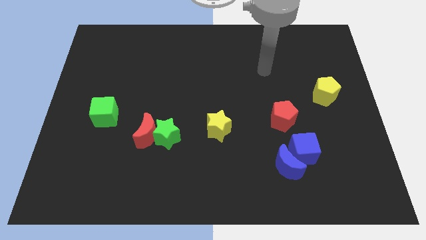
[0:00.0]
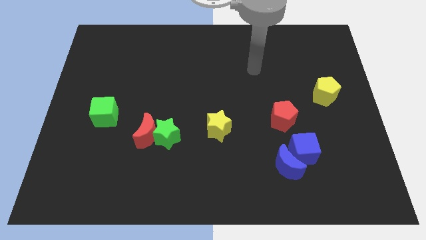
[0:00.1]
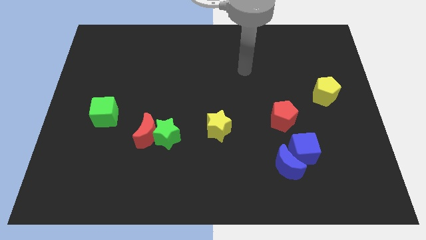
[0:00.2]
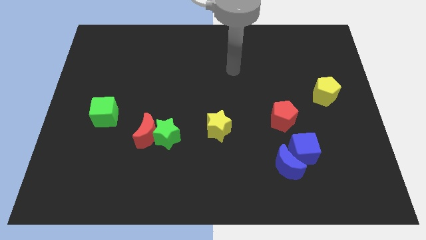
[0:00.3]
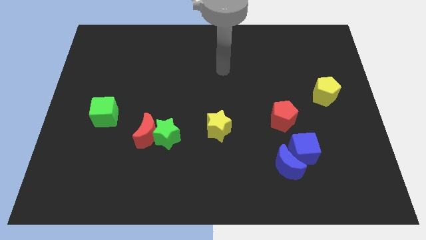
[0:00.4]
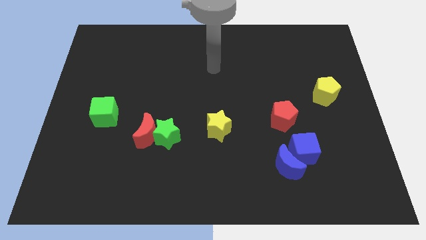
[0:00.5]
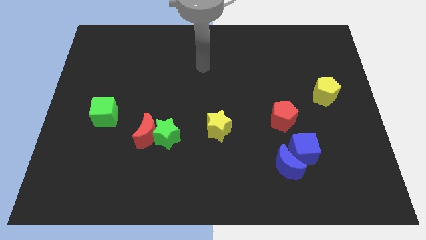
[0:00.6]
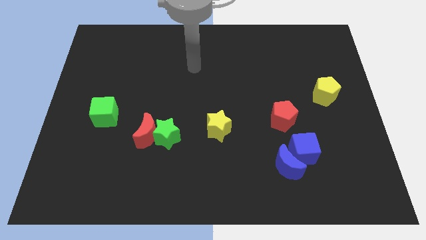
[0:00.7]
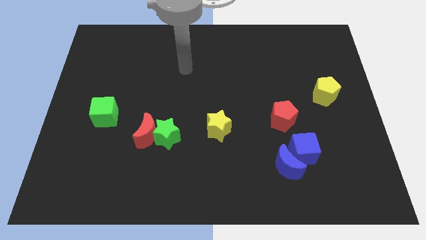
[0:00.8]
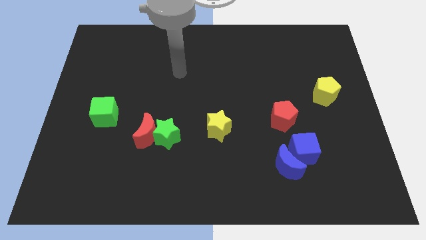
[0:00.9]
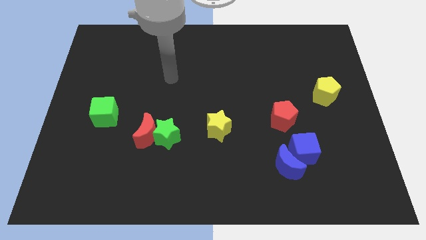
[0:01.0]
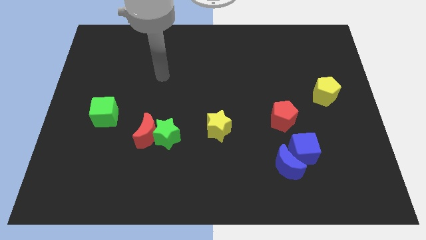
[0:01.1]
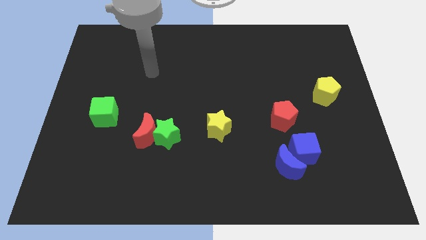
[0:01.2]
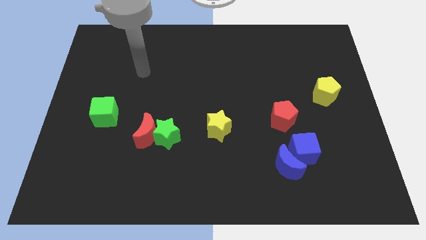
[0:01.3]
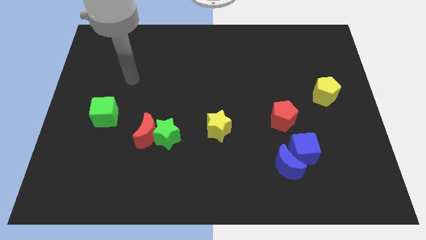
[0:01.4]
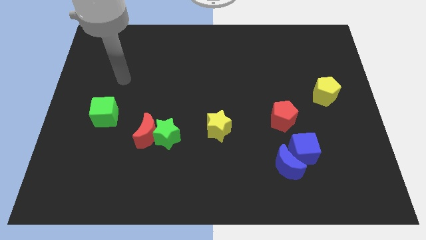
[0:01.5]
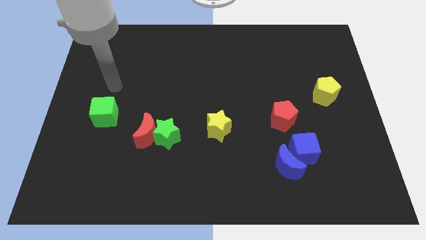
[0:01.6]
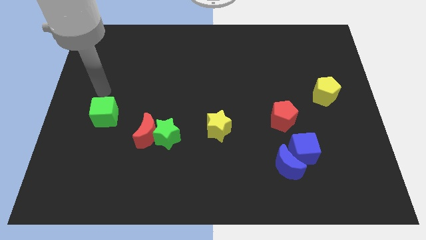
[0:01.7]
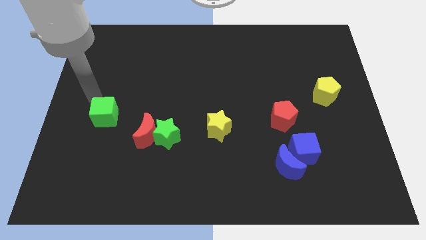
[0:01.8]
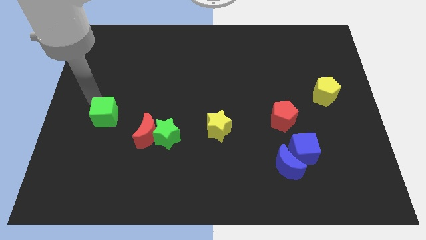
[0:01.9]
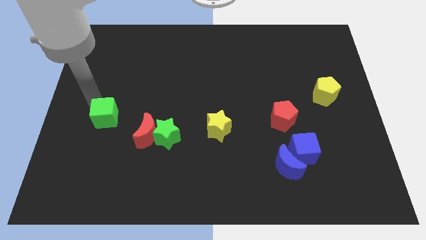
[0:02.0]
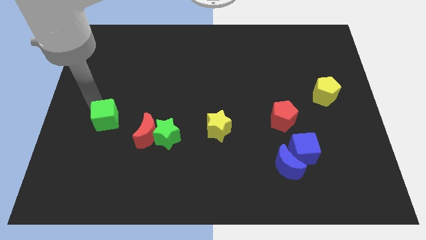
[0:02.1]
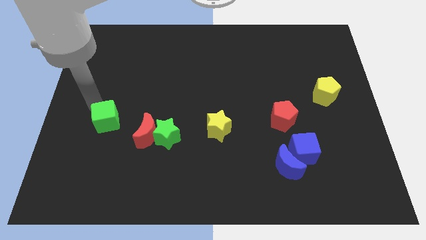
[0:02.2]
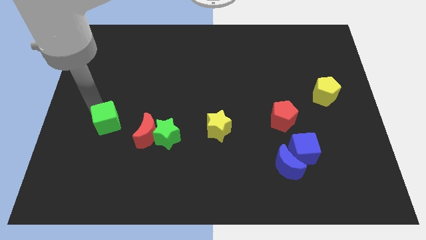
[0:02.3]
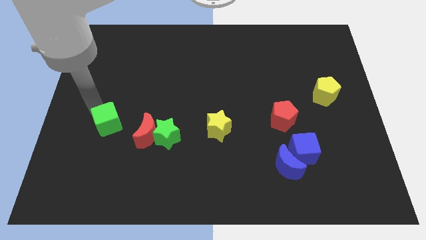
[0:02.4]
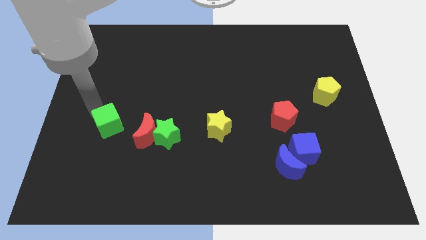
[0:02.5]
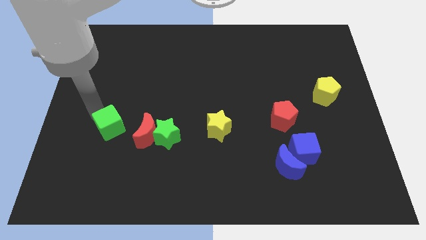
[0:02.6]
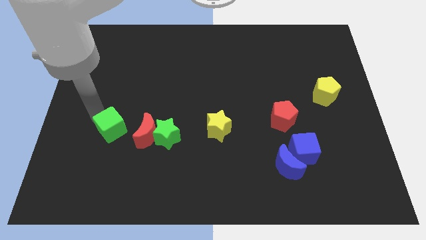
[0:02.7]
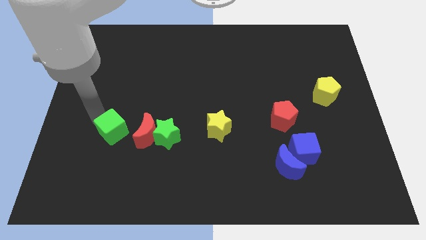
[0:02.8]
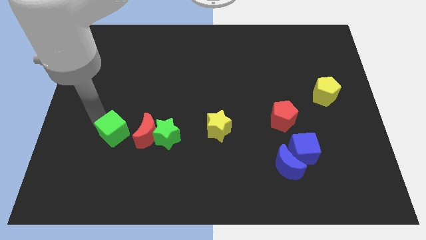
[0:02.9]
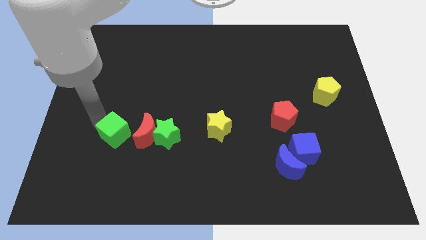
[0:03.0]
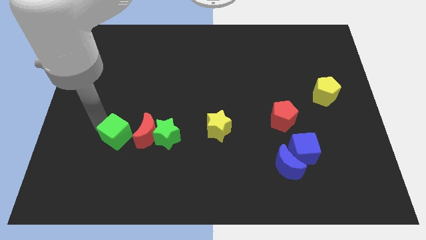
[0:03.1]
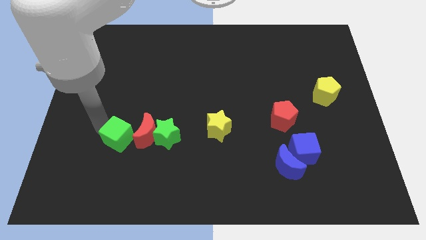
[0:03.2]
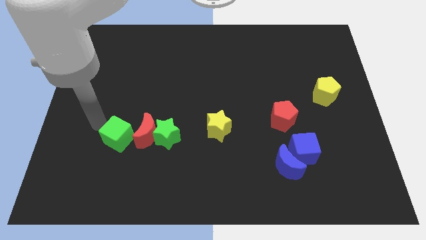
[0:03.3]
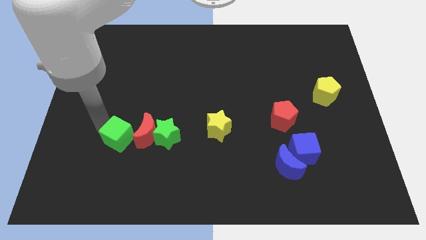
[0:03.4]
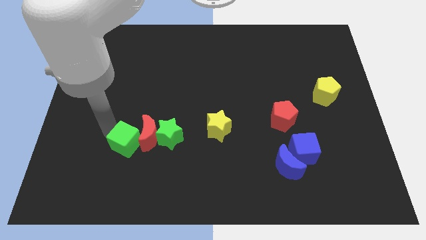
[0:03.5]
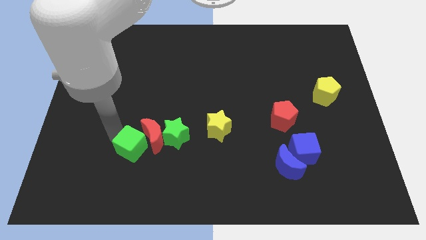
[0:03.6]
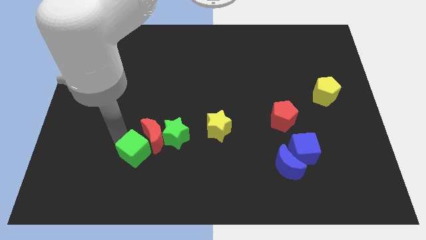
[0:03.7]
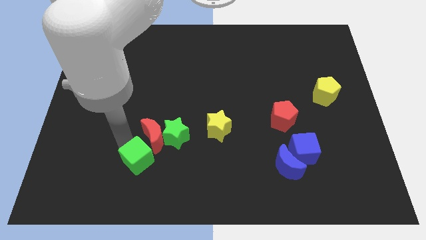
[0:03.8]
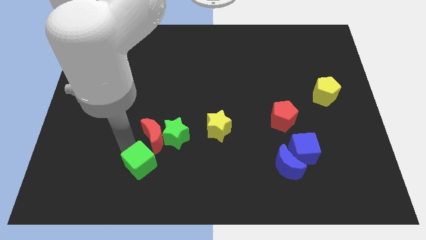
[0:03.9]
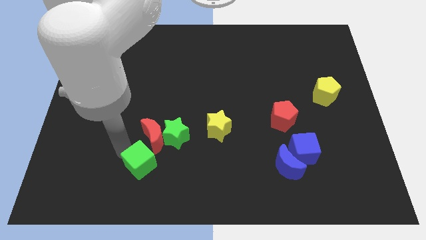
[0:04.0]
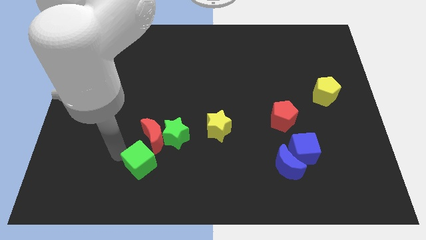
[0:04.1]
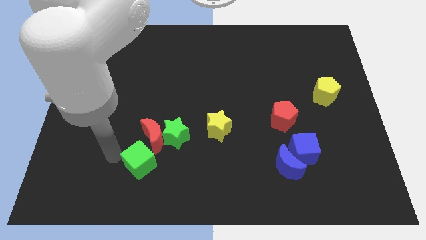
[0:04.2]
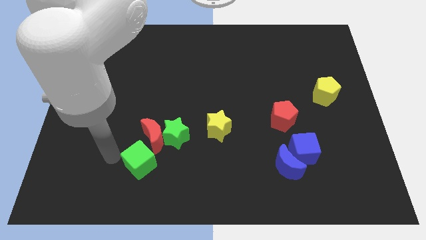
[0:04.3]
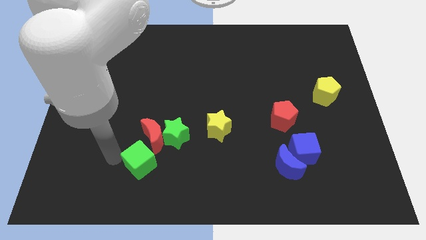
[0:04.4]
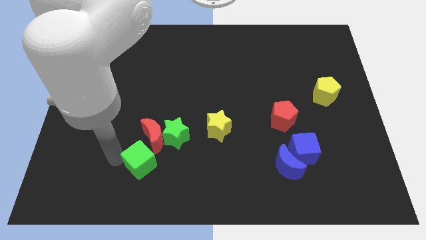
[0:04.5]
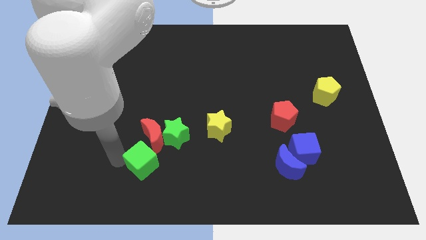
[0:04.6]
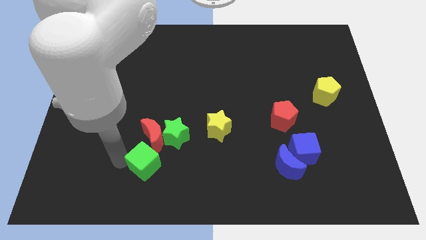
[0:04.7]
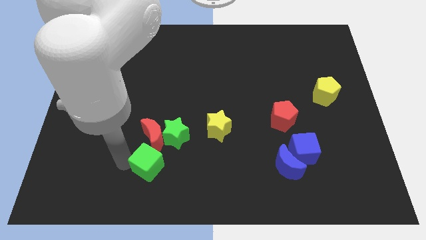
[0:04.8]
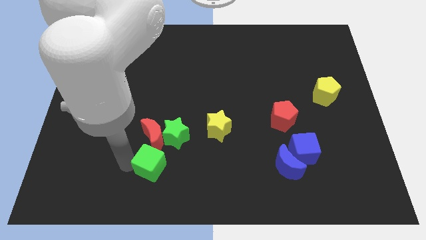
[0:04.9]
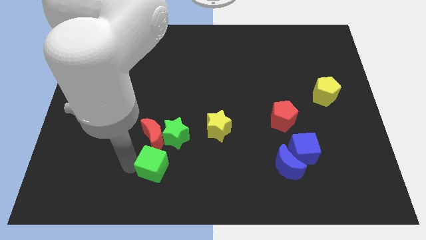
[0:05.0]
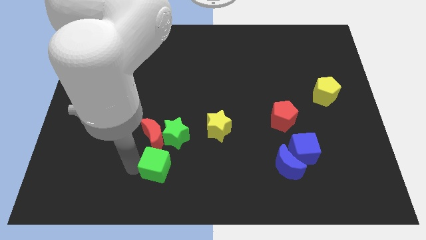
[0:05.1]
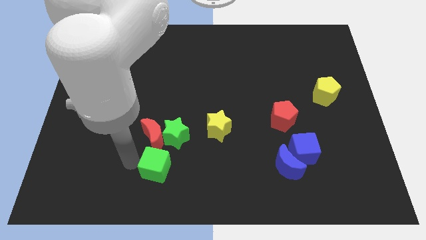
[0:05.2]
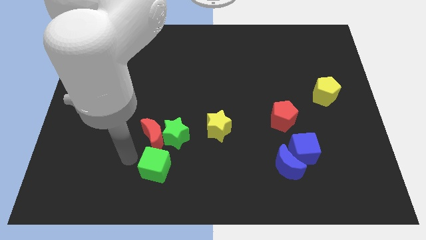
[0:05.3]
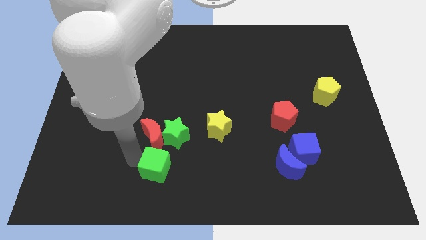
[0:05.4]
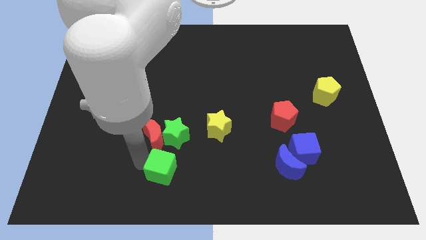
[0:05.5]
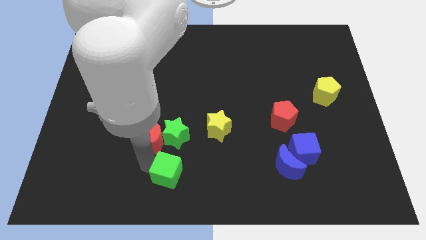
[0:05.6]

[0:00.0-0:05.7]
put the green cube to the bottom

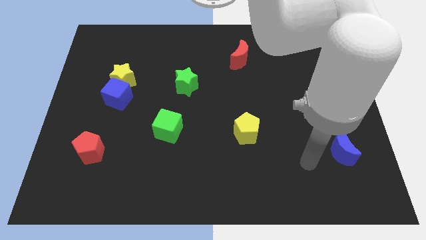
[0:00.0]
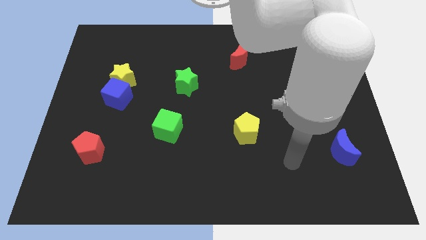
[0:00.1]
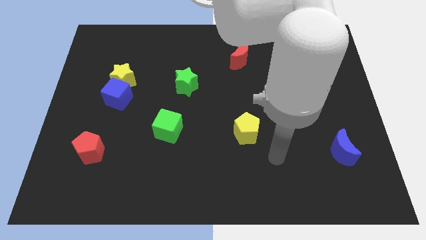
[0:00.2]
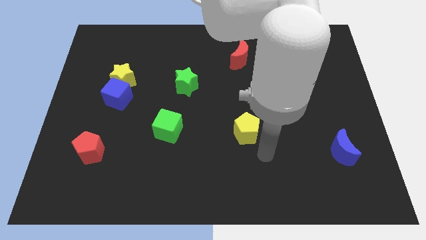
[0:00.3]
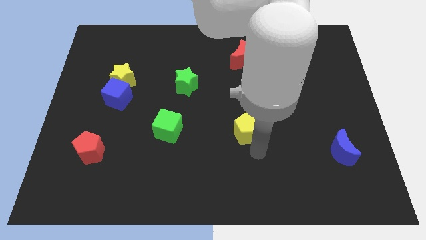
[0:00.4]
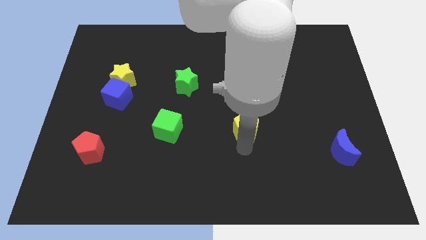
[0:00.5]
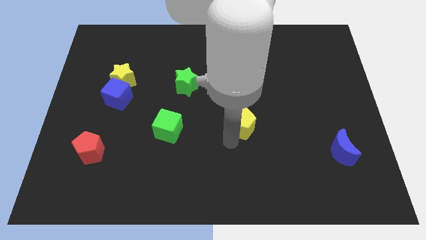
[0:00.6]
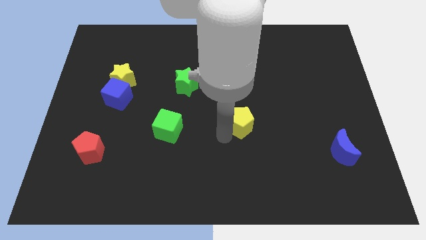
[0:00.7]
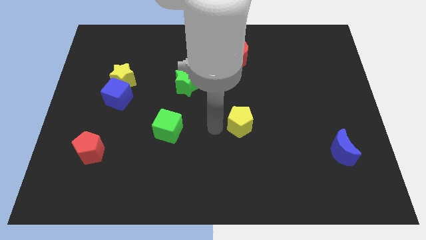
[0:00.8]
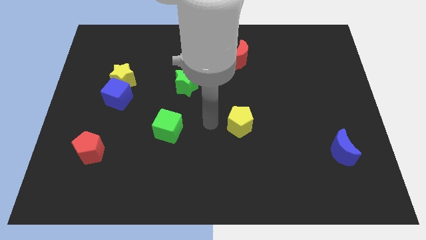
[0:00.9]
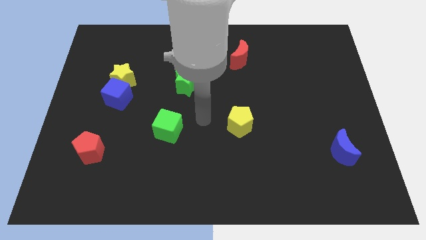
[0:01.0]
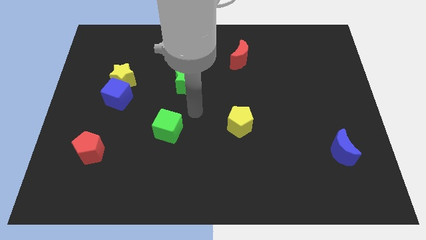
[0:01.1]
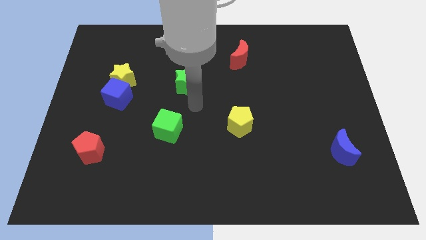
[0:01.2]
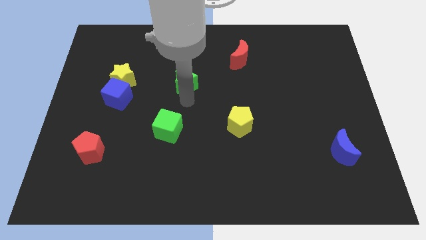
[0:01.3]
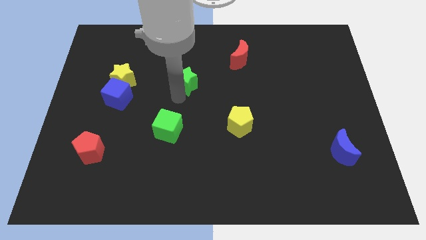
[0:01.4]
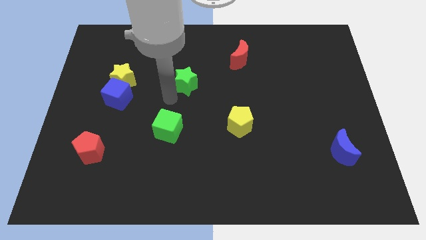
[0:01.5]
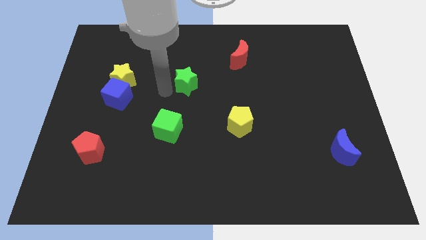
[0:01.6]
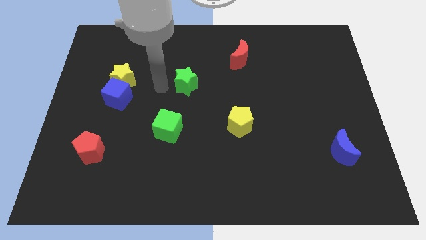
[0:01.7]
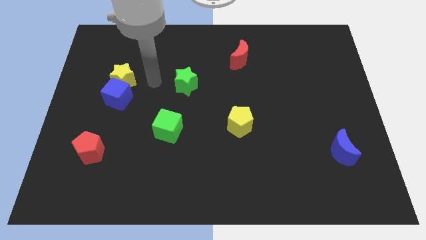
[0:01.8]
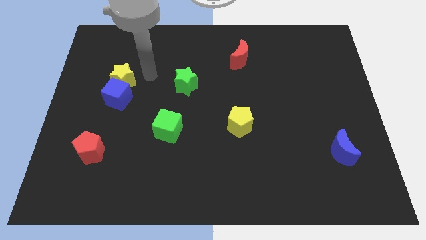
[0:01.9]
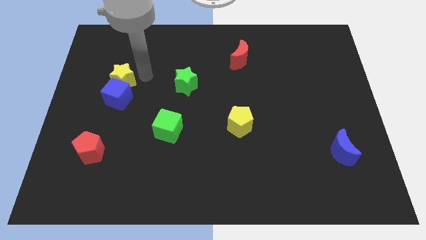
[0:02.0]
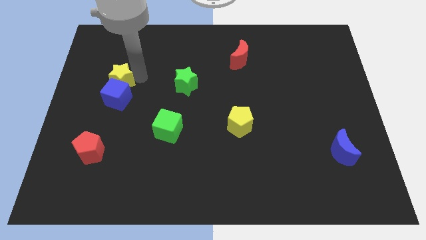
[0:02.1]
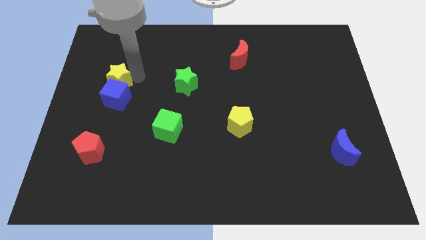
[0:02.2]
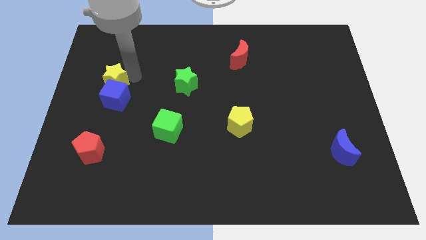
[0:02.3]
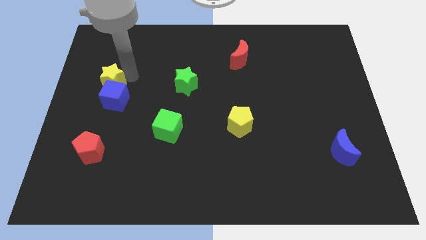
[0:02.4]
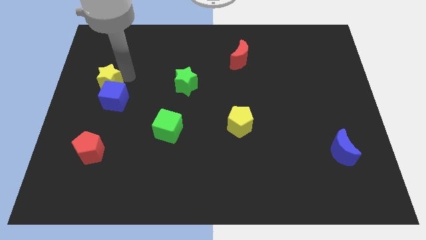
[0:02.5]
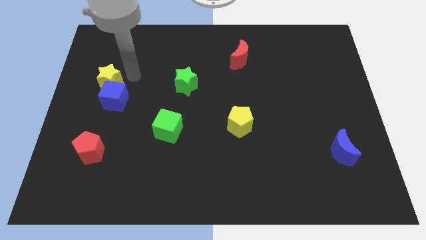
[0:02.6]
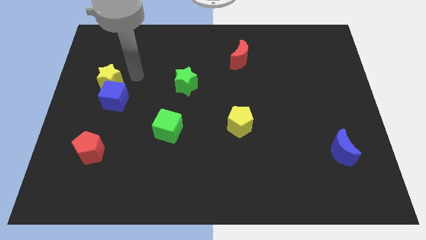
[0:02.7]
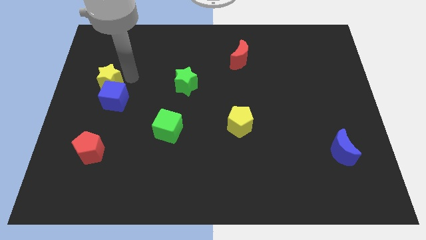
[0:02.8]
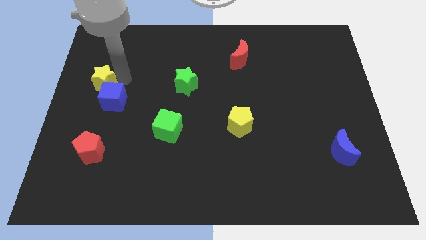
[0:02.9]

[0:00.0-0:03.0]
push the yellow star to the left side of the board
